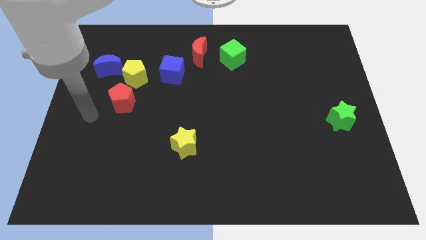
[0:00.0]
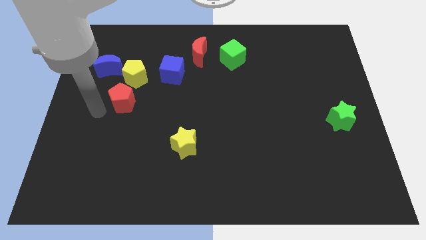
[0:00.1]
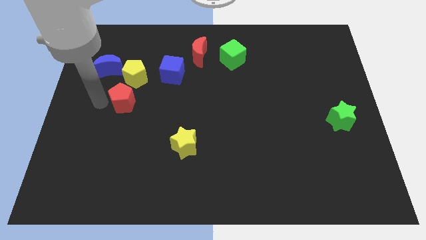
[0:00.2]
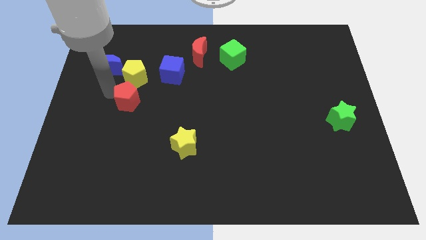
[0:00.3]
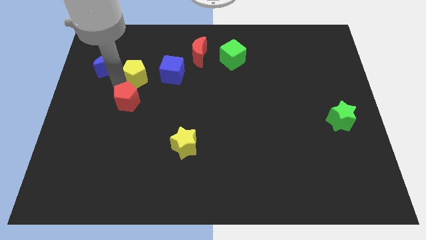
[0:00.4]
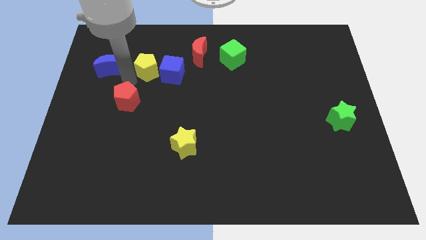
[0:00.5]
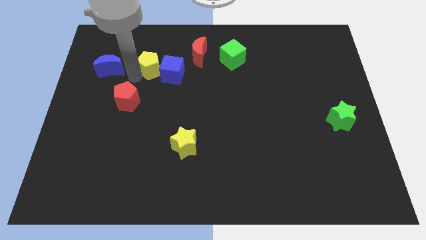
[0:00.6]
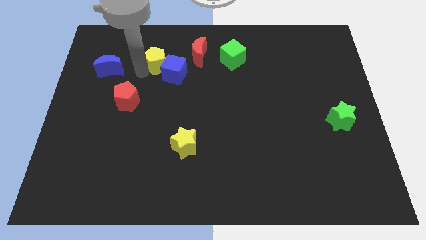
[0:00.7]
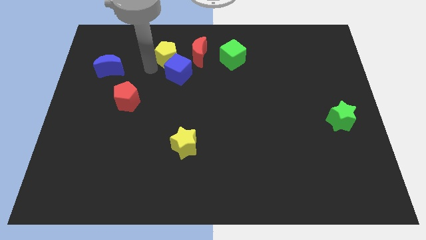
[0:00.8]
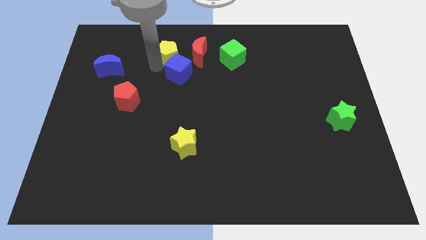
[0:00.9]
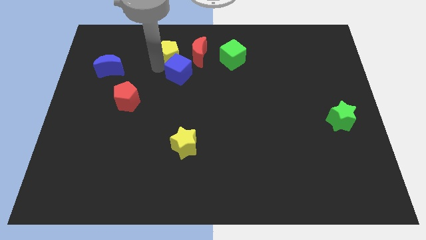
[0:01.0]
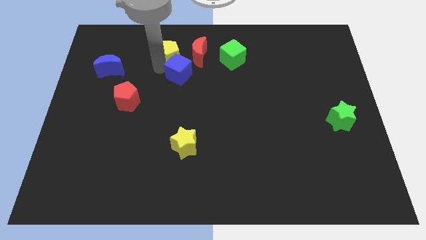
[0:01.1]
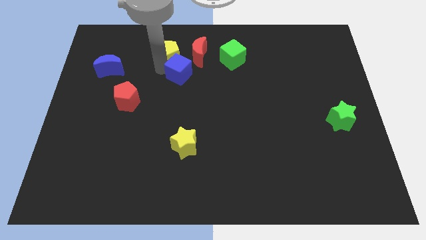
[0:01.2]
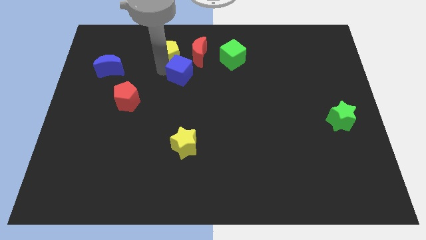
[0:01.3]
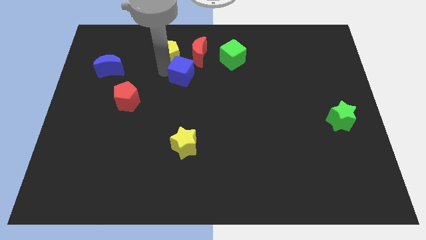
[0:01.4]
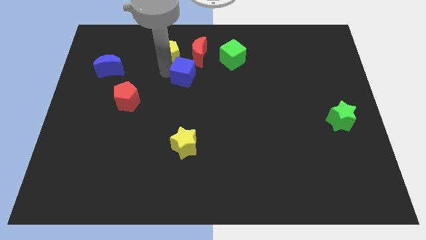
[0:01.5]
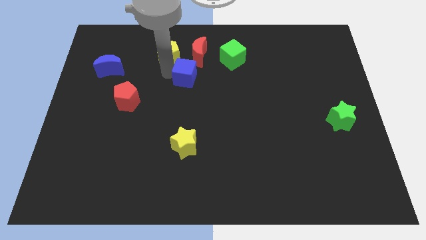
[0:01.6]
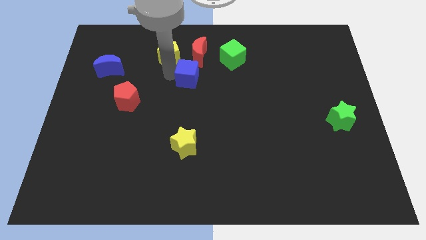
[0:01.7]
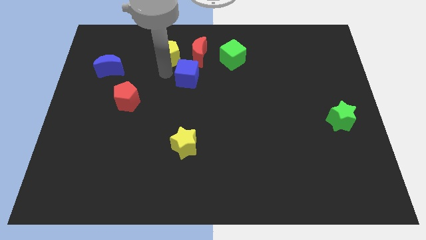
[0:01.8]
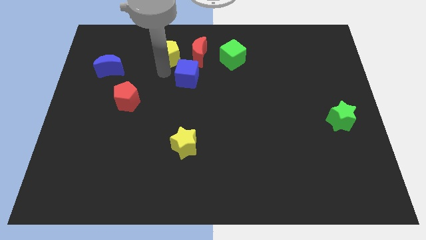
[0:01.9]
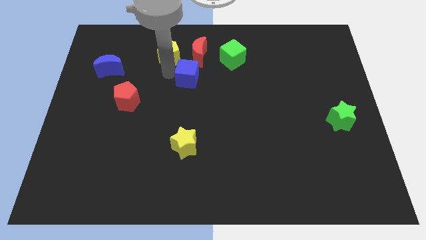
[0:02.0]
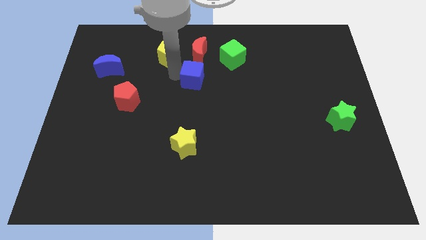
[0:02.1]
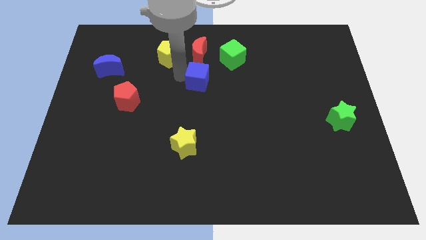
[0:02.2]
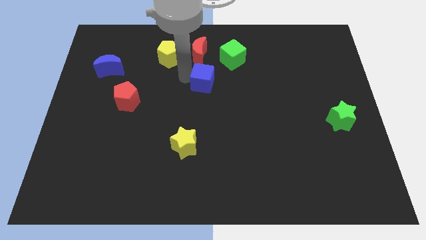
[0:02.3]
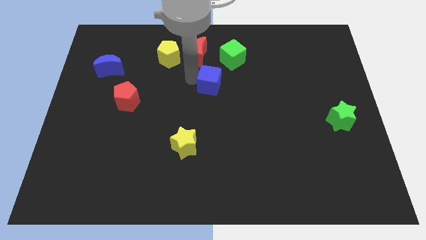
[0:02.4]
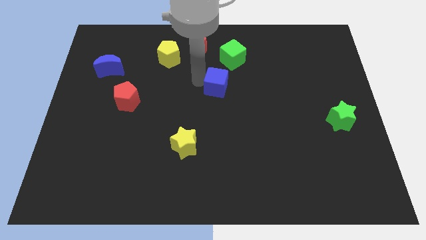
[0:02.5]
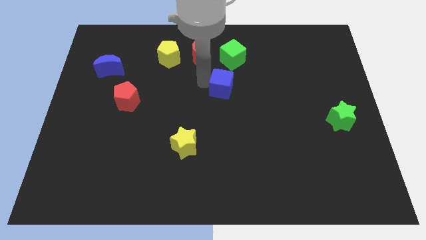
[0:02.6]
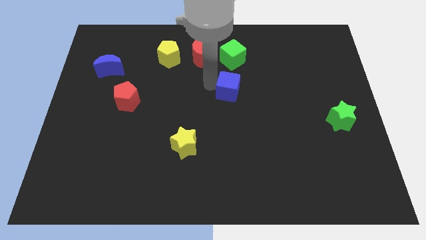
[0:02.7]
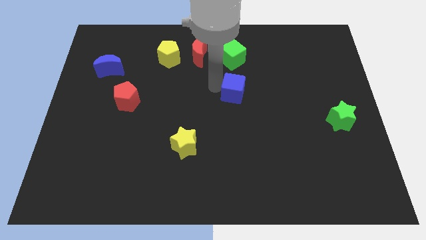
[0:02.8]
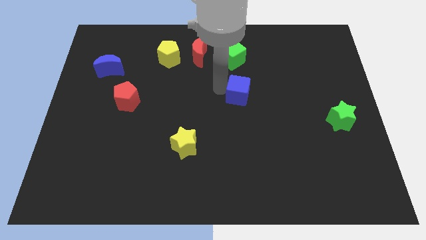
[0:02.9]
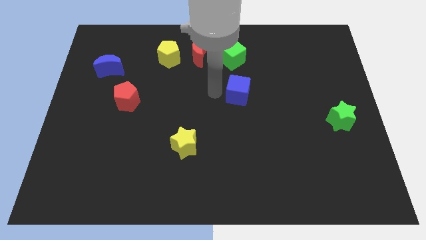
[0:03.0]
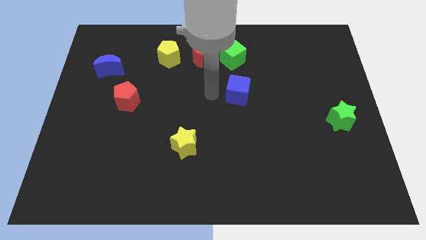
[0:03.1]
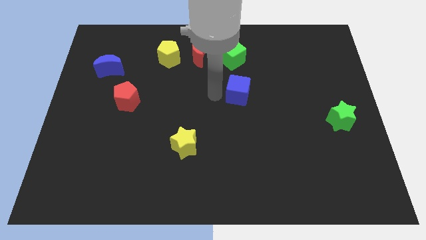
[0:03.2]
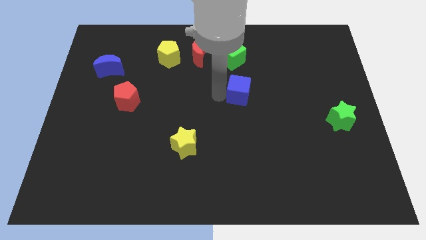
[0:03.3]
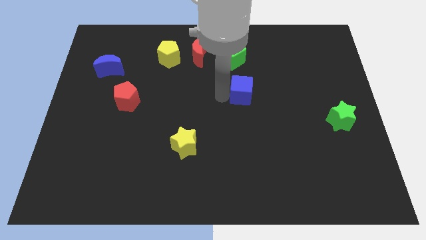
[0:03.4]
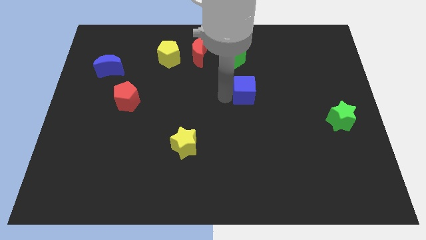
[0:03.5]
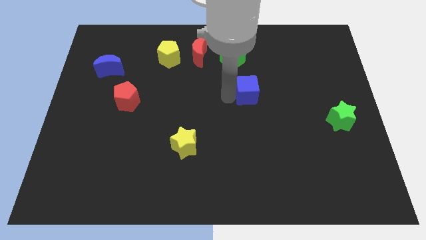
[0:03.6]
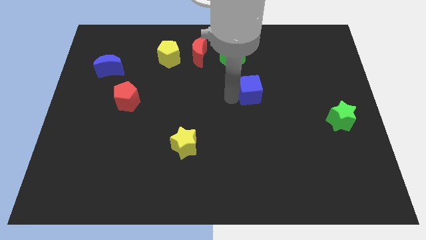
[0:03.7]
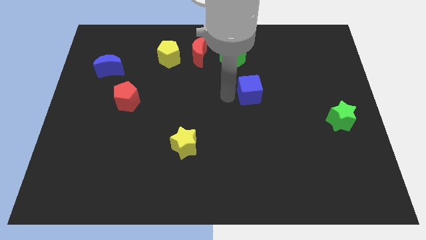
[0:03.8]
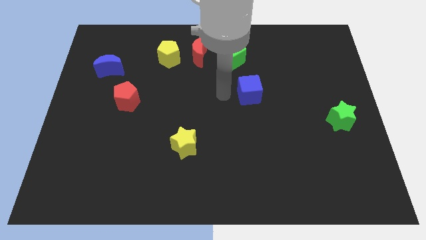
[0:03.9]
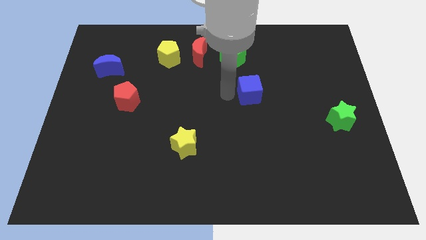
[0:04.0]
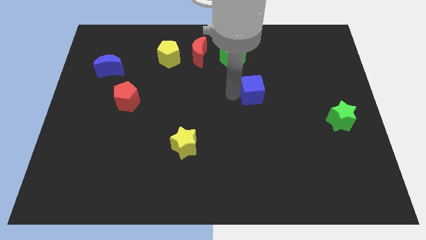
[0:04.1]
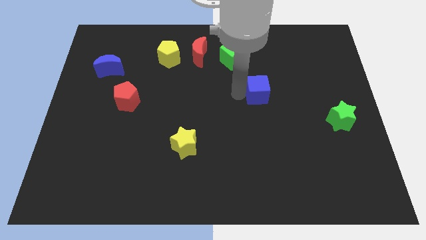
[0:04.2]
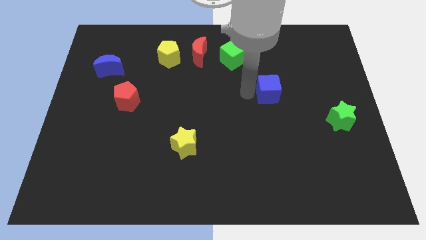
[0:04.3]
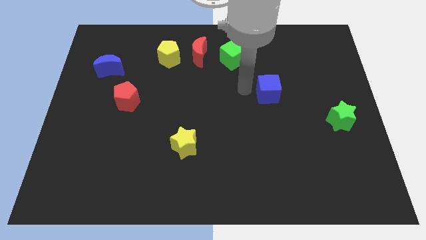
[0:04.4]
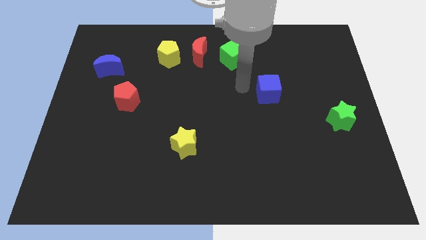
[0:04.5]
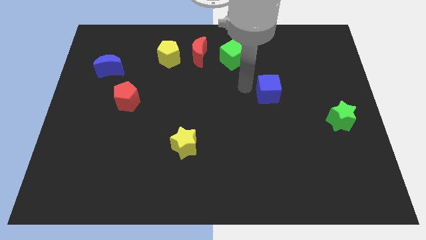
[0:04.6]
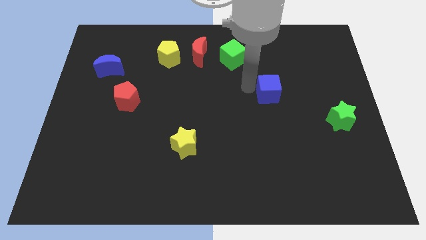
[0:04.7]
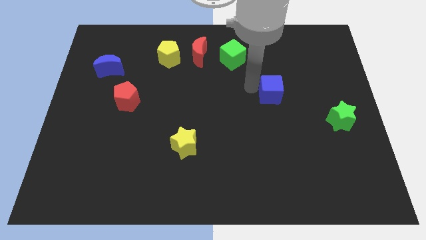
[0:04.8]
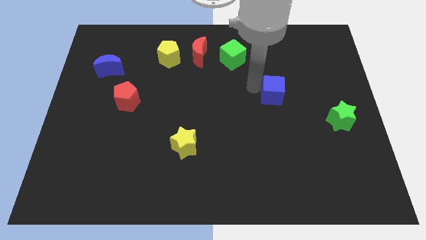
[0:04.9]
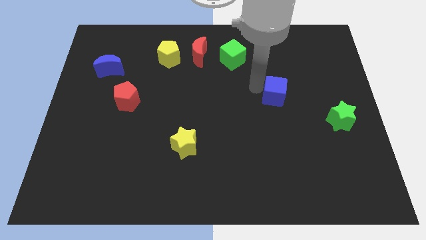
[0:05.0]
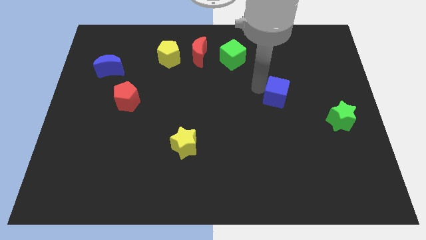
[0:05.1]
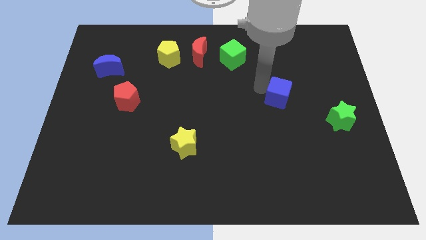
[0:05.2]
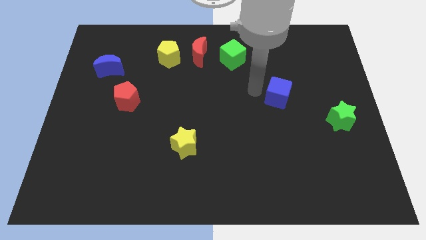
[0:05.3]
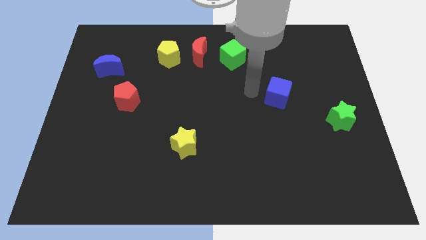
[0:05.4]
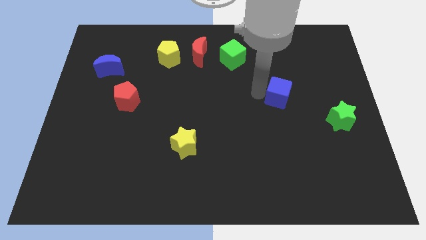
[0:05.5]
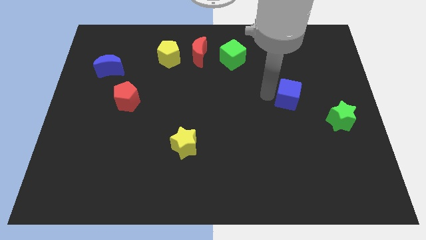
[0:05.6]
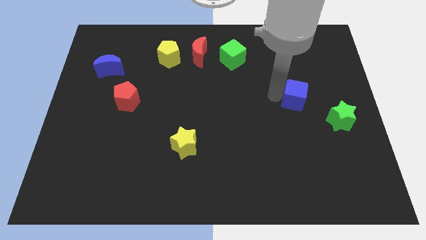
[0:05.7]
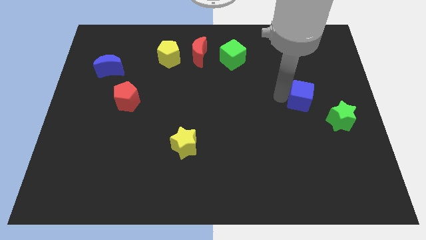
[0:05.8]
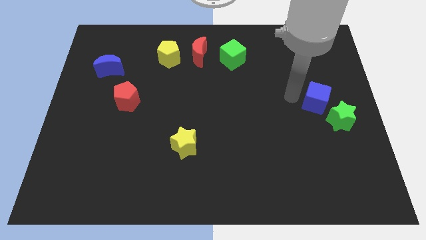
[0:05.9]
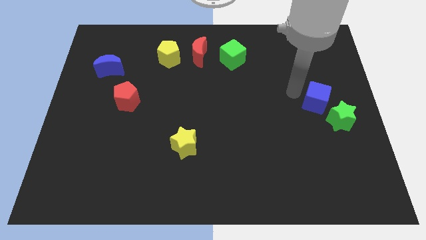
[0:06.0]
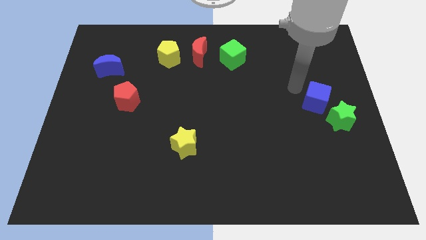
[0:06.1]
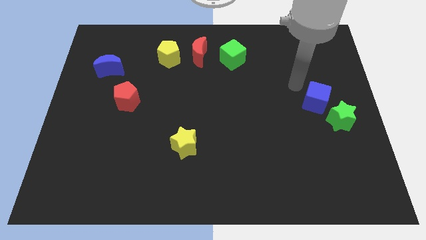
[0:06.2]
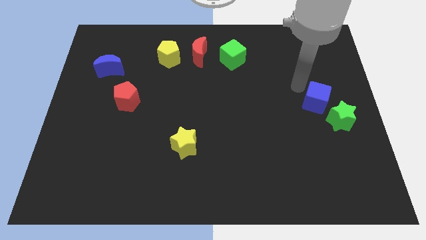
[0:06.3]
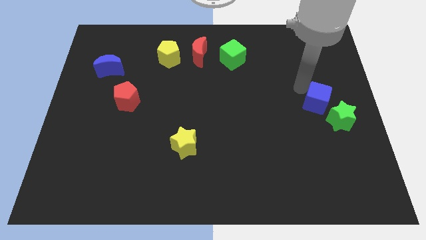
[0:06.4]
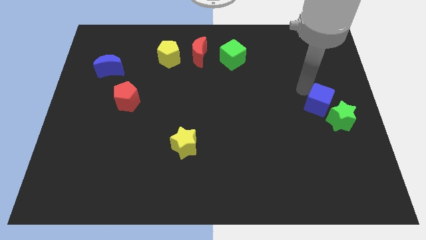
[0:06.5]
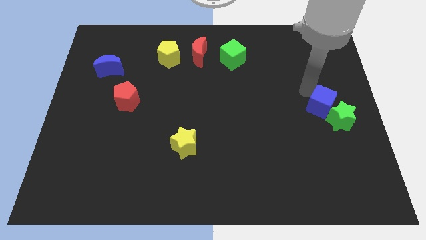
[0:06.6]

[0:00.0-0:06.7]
move the blue cube towards the green star
